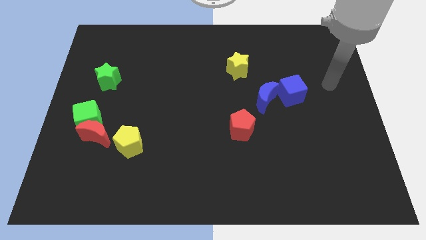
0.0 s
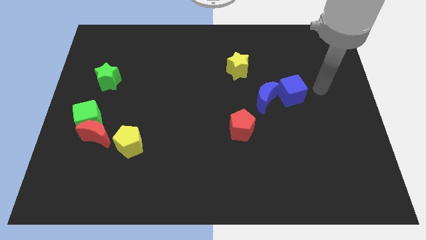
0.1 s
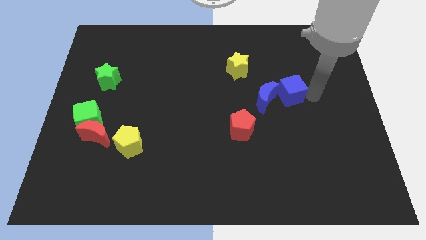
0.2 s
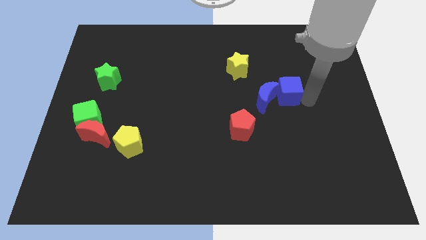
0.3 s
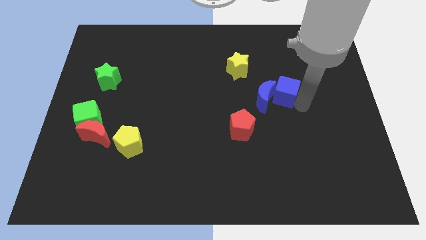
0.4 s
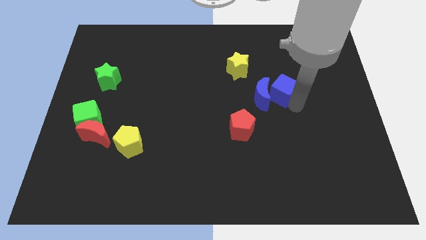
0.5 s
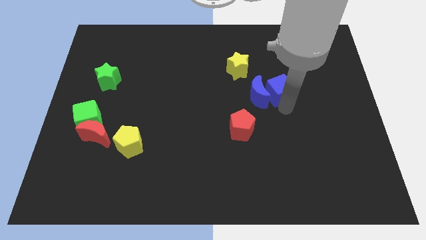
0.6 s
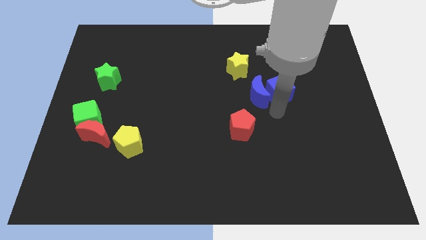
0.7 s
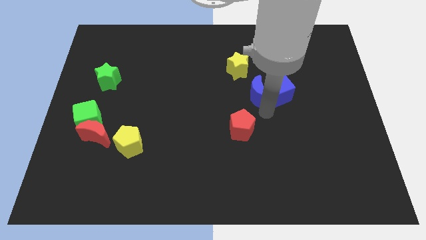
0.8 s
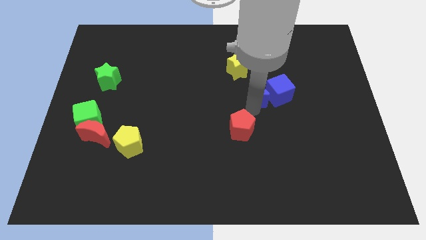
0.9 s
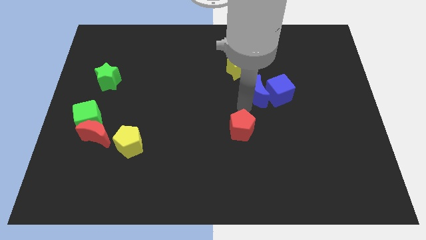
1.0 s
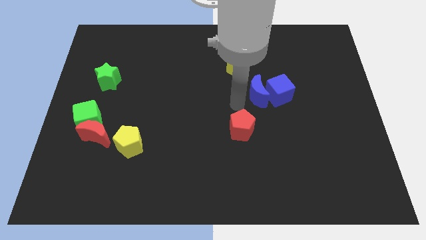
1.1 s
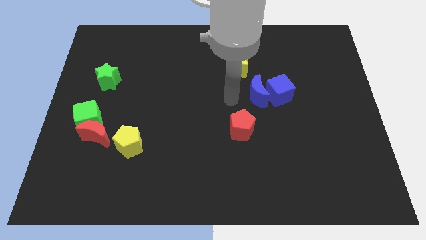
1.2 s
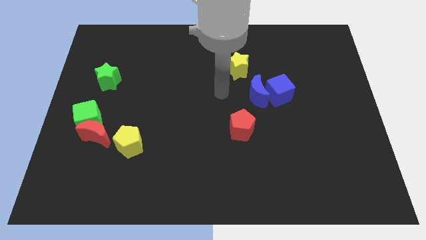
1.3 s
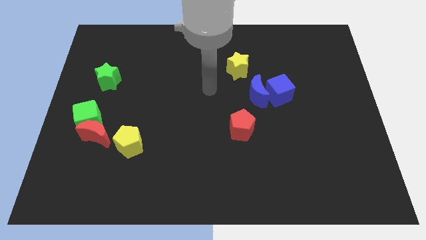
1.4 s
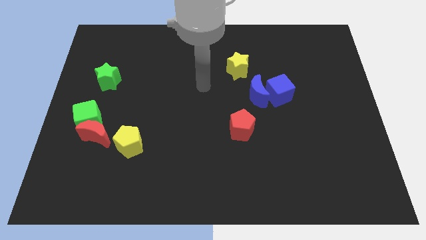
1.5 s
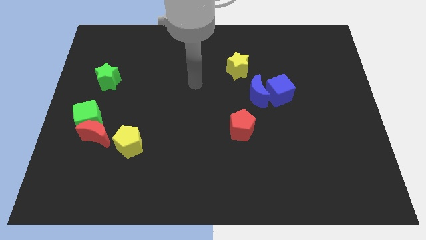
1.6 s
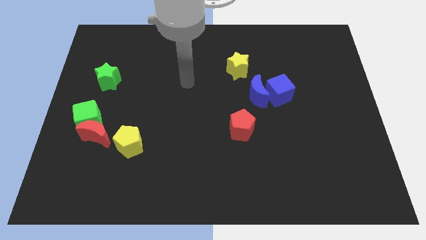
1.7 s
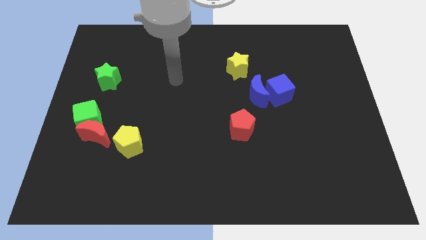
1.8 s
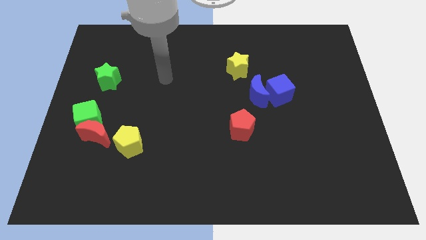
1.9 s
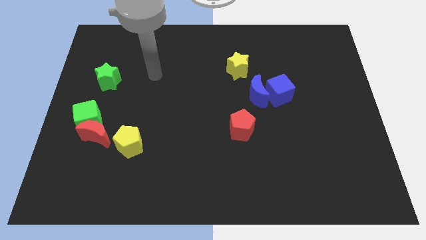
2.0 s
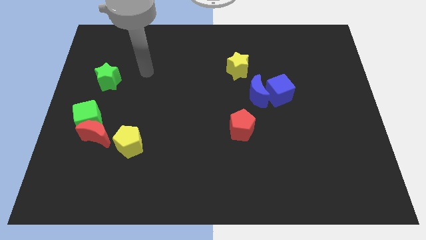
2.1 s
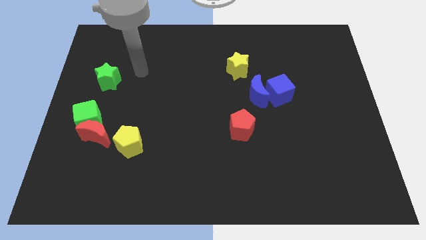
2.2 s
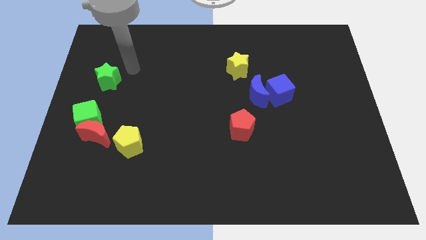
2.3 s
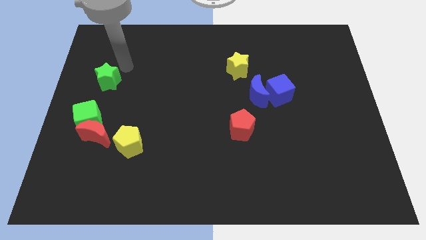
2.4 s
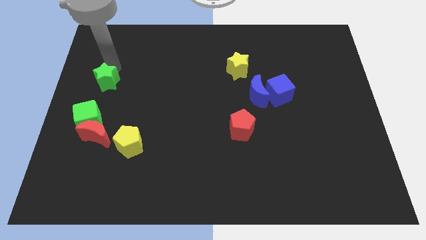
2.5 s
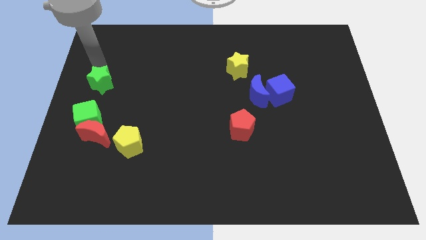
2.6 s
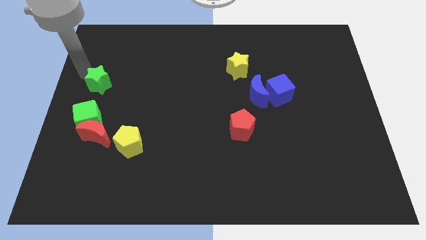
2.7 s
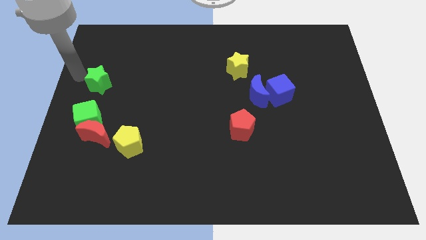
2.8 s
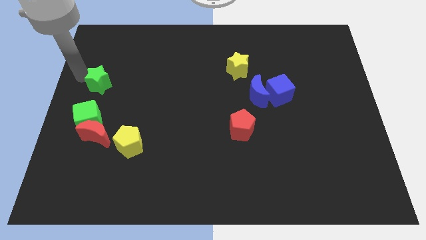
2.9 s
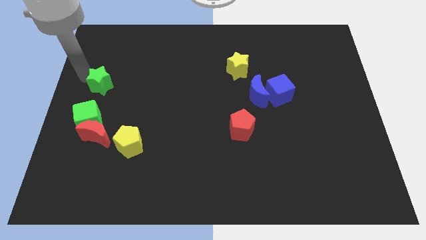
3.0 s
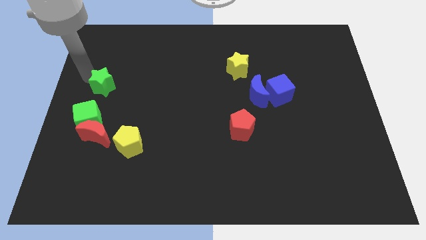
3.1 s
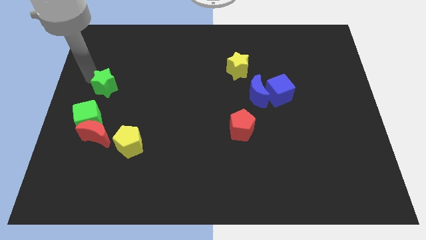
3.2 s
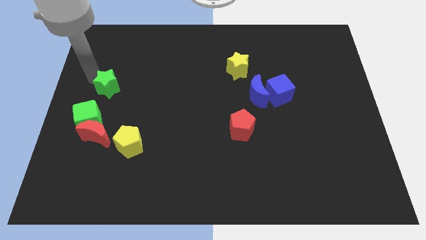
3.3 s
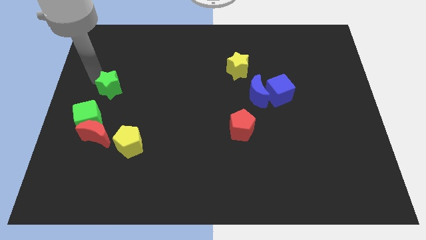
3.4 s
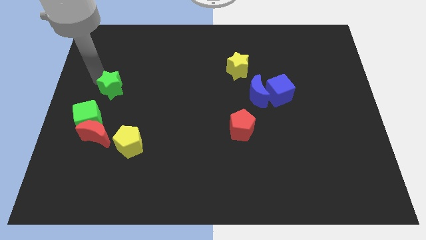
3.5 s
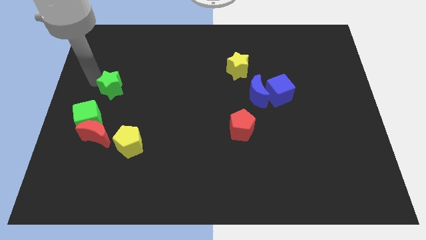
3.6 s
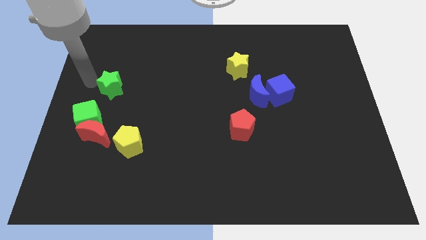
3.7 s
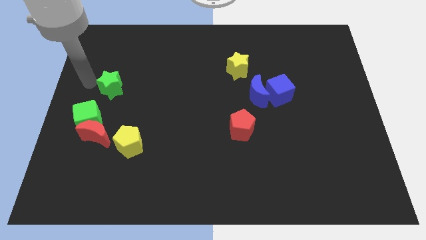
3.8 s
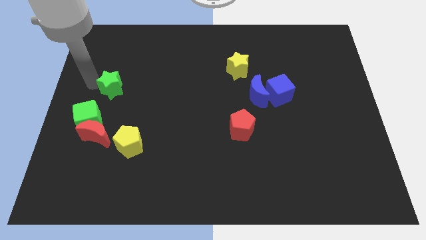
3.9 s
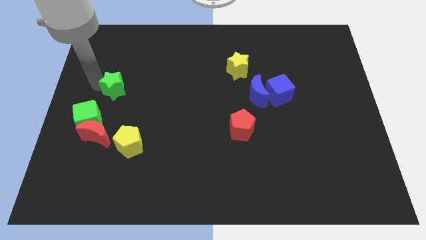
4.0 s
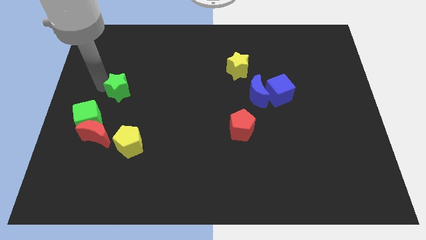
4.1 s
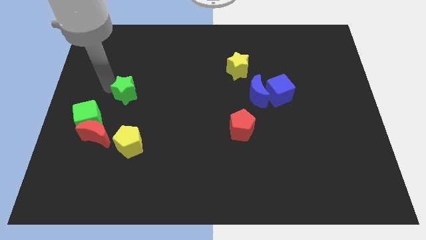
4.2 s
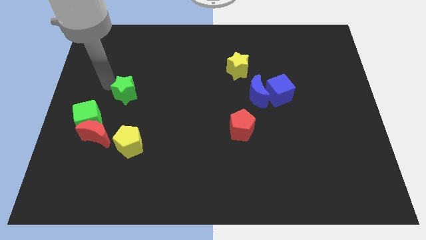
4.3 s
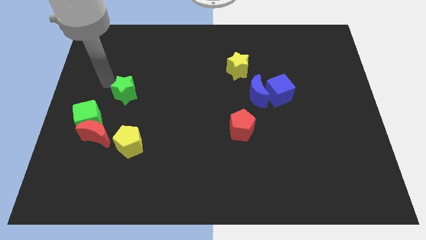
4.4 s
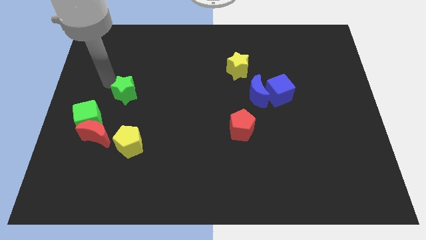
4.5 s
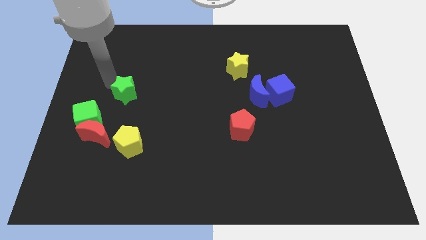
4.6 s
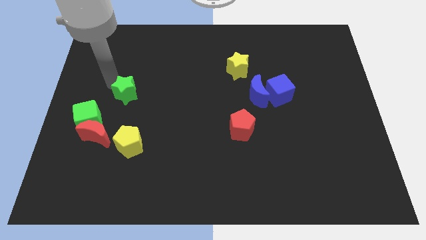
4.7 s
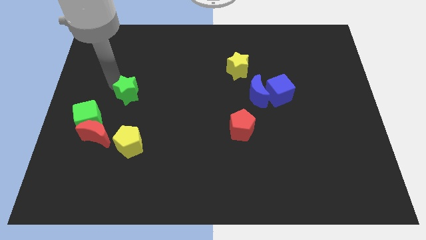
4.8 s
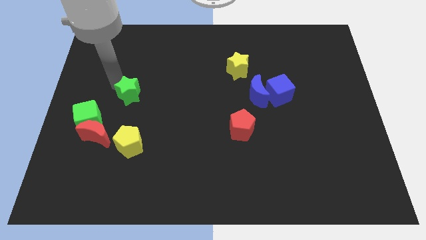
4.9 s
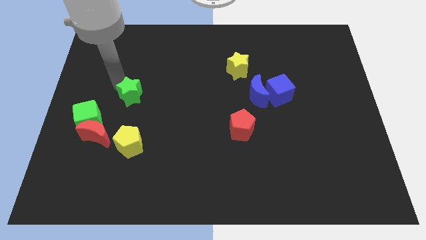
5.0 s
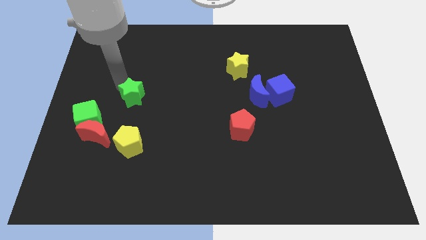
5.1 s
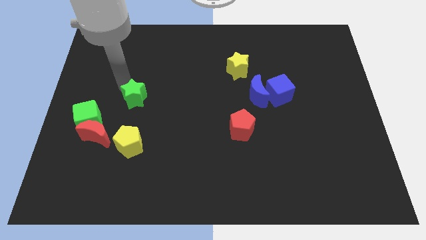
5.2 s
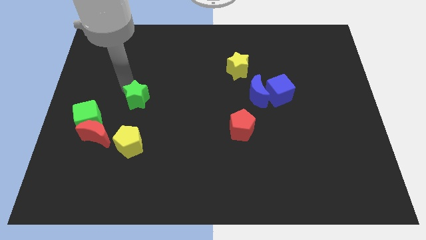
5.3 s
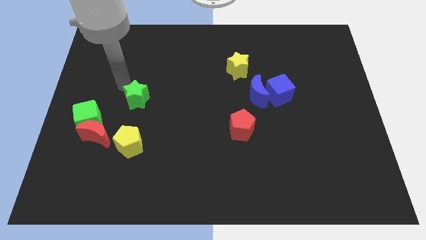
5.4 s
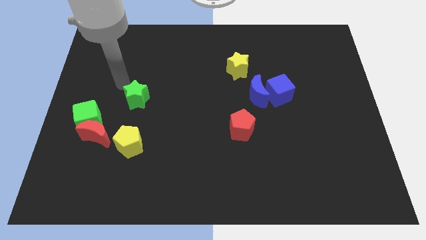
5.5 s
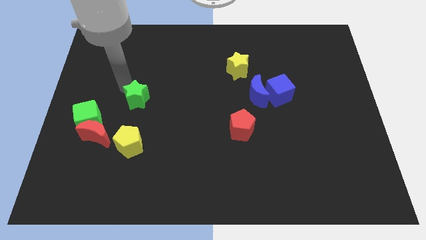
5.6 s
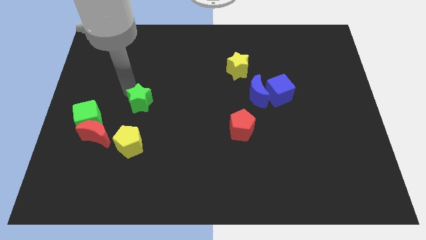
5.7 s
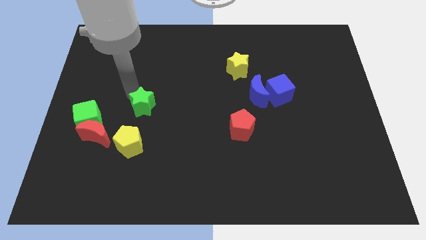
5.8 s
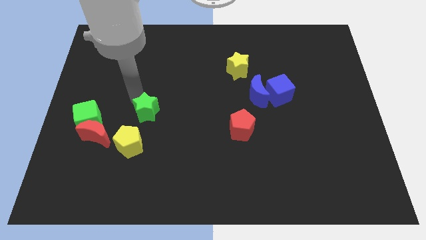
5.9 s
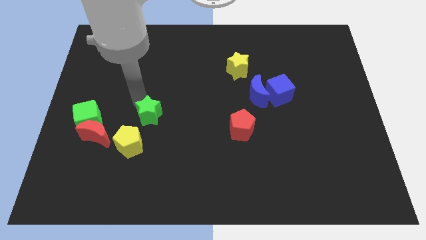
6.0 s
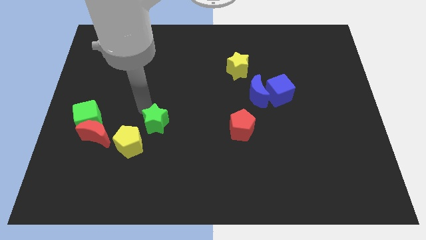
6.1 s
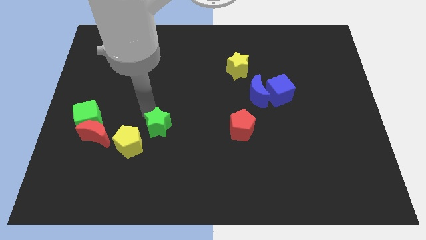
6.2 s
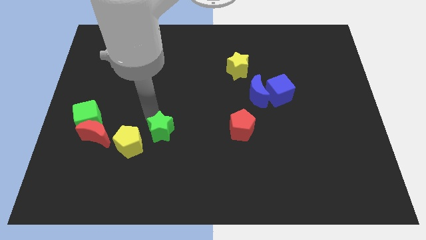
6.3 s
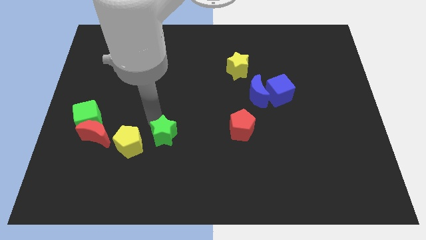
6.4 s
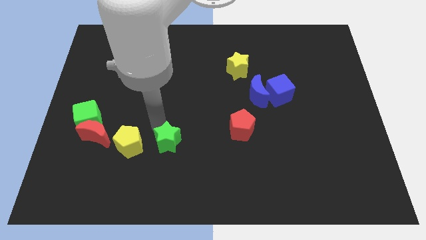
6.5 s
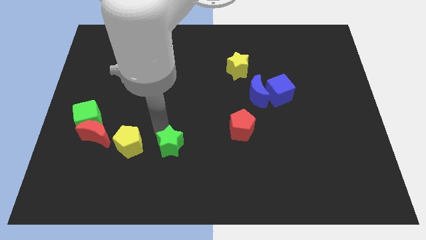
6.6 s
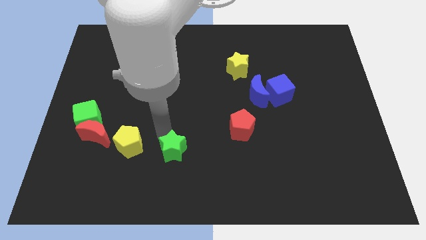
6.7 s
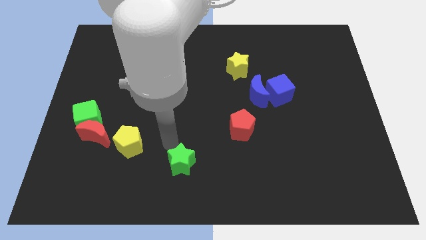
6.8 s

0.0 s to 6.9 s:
slide the green star to the bottom
